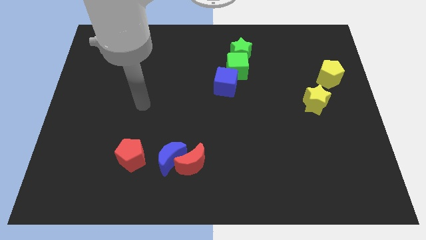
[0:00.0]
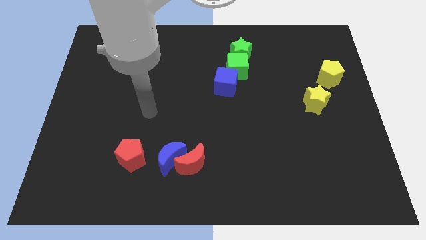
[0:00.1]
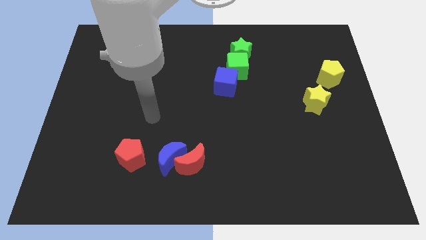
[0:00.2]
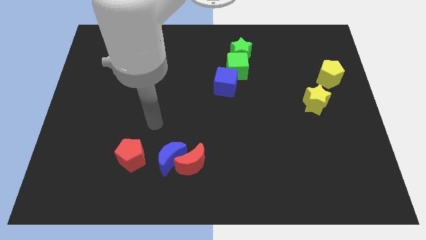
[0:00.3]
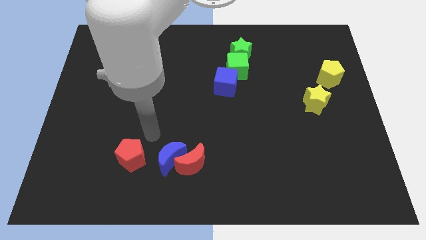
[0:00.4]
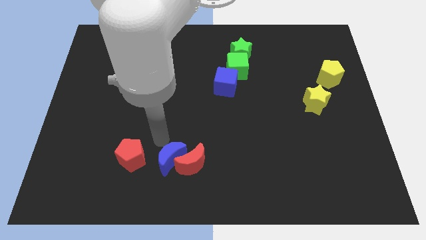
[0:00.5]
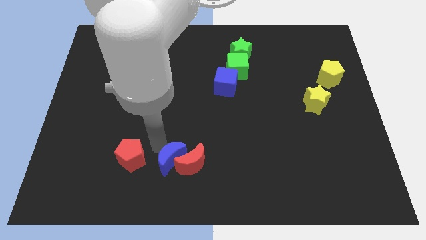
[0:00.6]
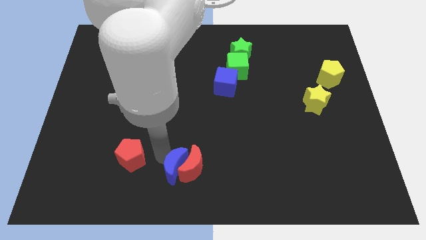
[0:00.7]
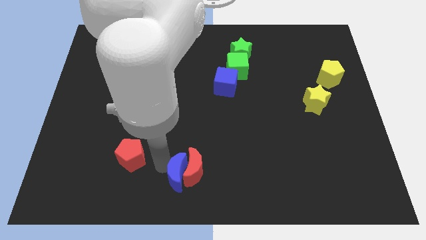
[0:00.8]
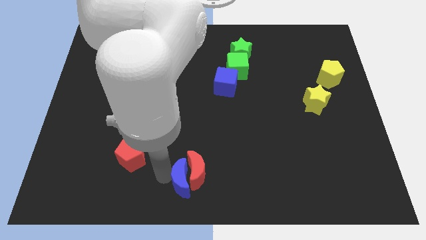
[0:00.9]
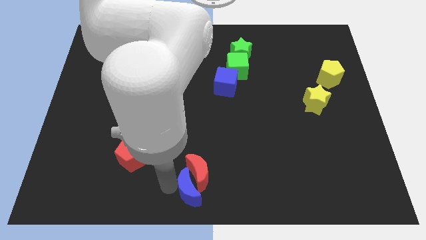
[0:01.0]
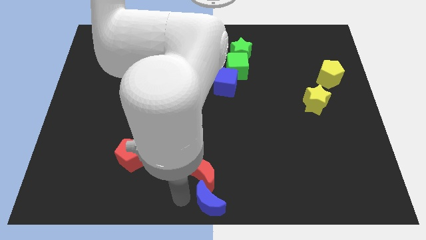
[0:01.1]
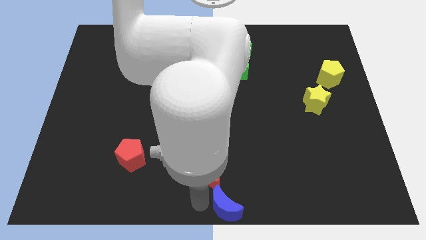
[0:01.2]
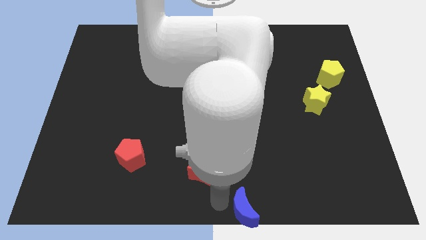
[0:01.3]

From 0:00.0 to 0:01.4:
pull the red moon apart from the blue moon

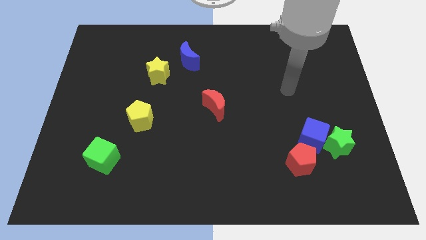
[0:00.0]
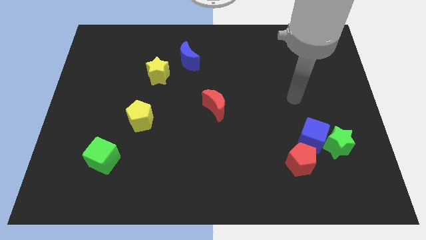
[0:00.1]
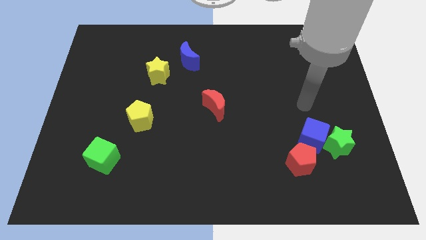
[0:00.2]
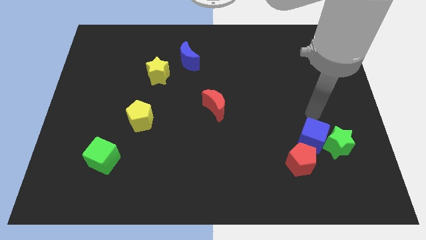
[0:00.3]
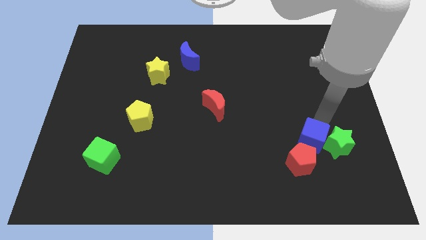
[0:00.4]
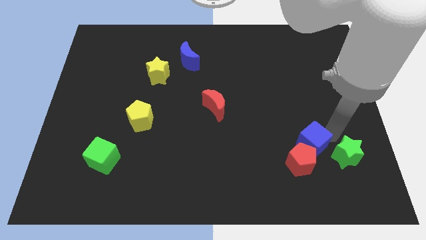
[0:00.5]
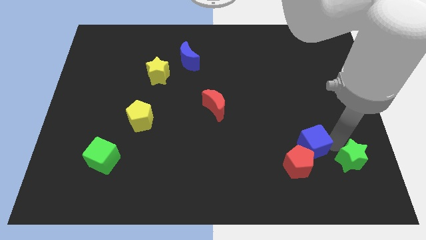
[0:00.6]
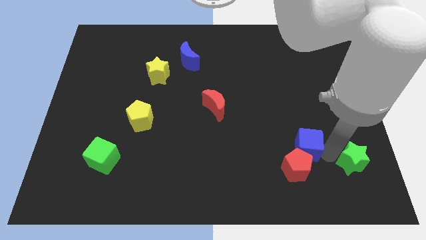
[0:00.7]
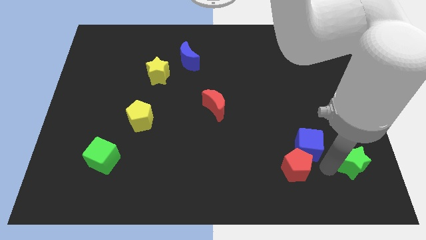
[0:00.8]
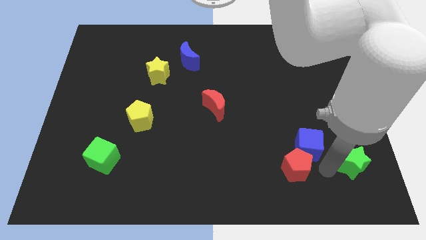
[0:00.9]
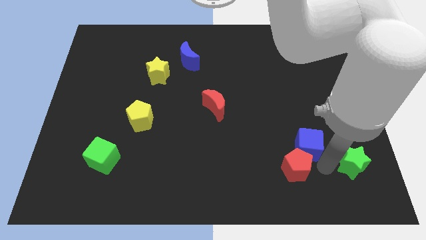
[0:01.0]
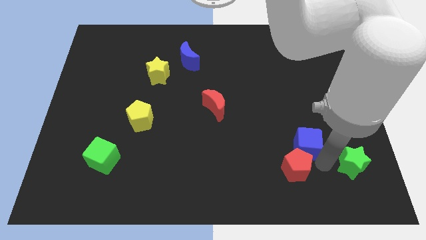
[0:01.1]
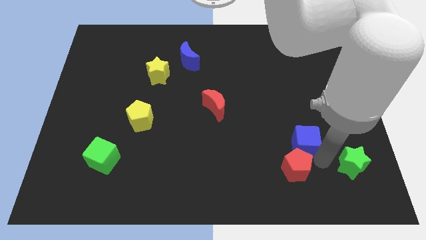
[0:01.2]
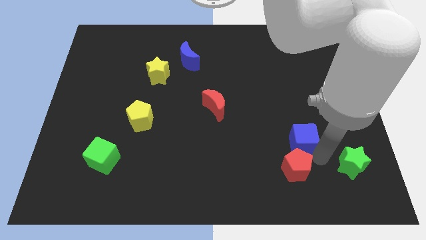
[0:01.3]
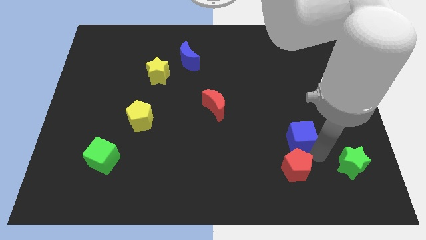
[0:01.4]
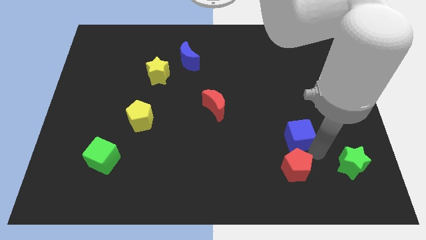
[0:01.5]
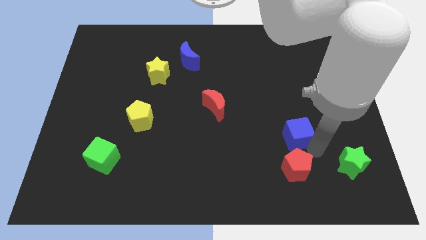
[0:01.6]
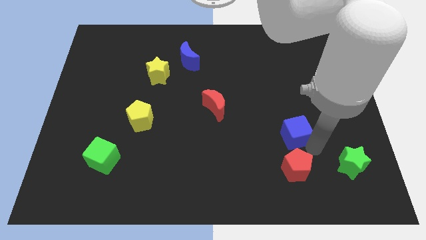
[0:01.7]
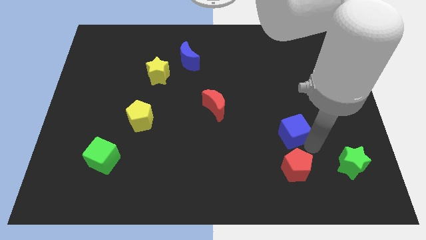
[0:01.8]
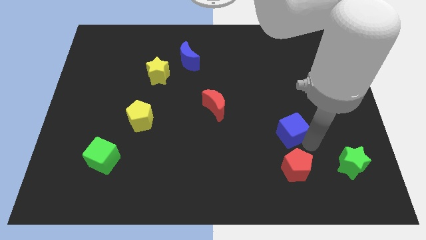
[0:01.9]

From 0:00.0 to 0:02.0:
move the blue cube away from the green star and red pentagon

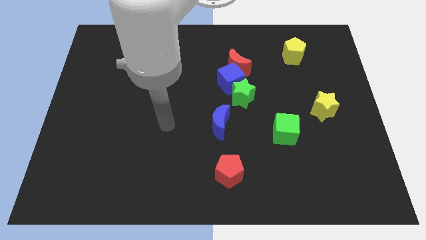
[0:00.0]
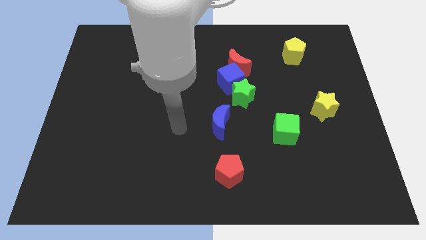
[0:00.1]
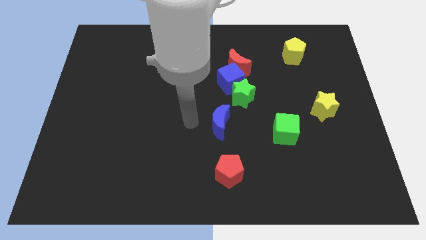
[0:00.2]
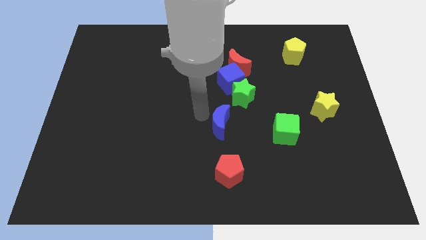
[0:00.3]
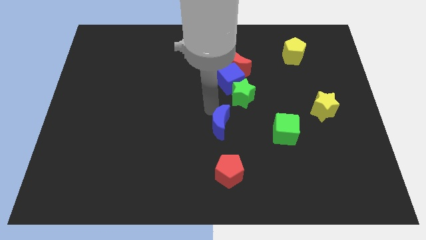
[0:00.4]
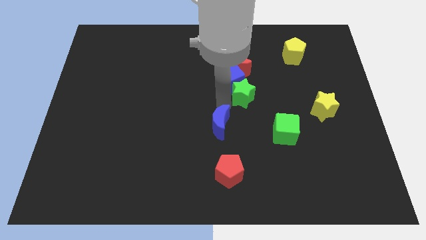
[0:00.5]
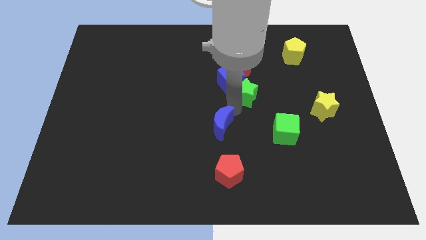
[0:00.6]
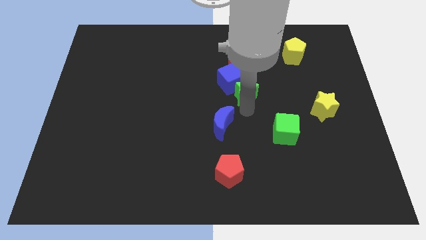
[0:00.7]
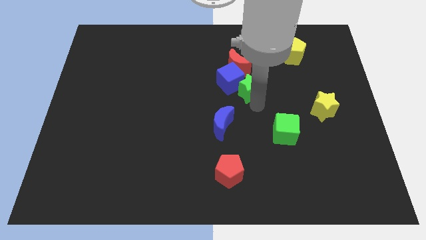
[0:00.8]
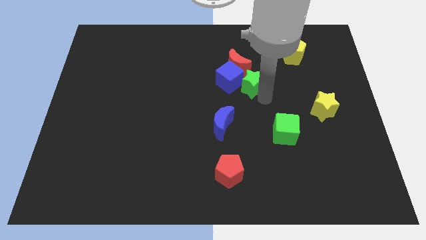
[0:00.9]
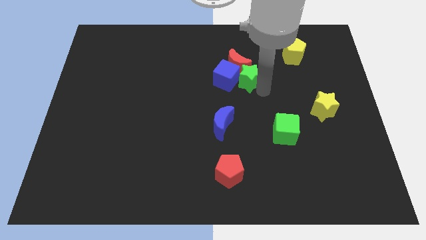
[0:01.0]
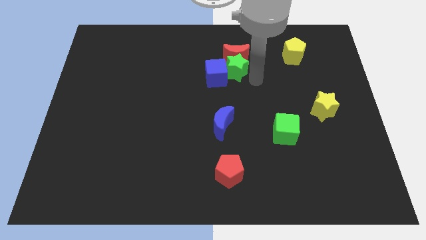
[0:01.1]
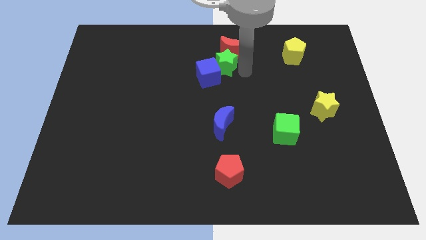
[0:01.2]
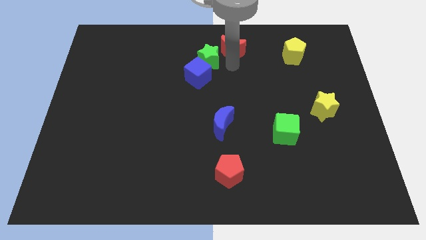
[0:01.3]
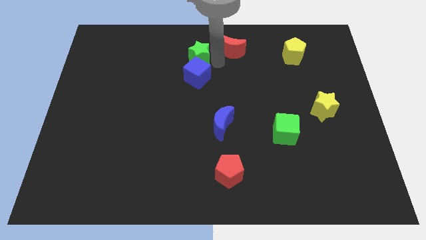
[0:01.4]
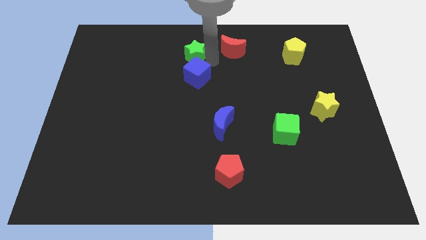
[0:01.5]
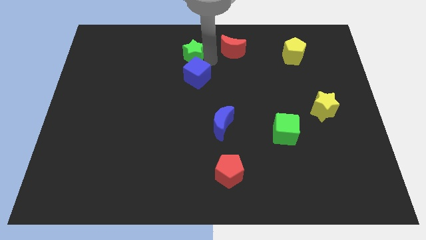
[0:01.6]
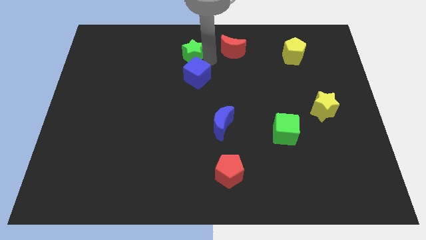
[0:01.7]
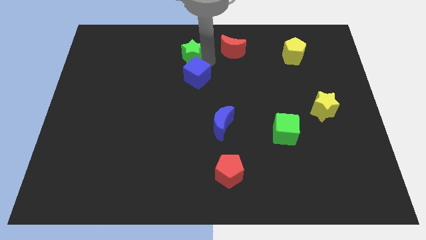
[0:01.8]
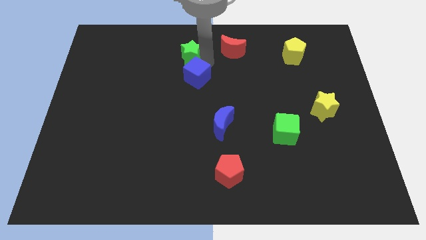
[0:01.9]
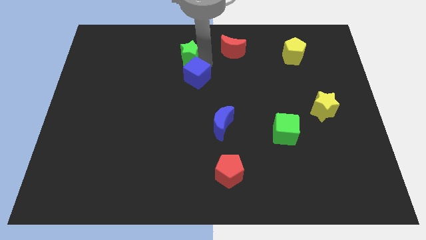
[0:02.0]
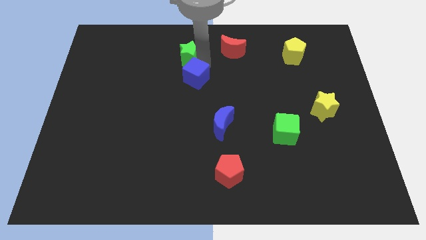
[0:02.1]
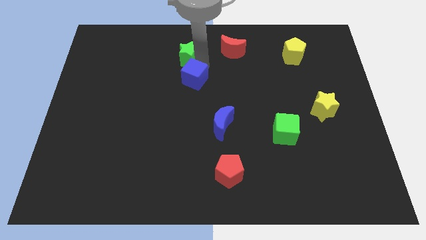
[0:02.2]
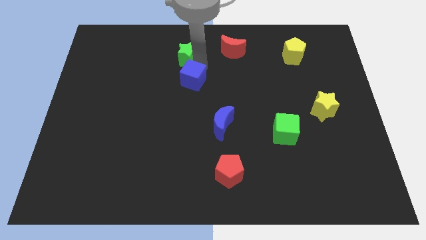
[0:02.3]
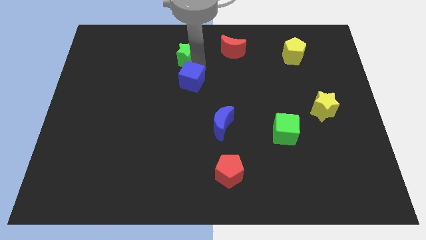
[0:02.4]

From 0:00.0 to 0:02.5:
separate the blue cube from the green star and red moon

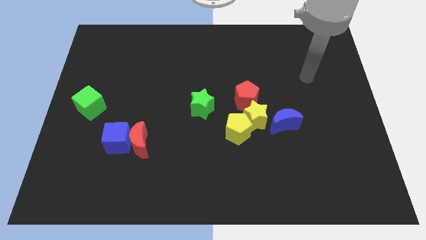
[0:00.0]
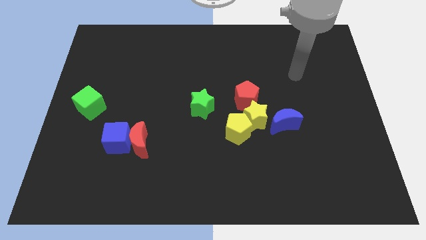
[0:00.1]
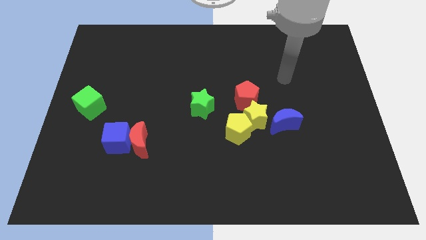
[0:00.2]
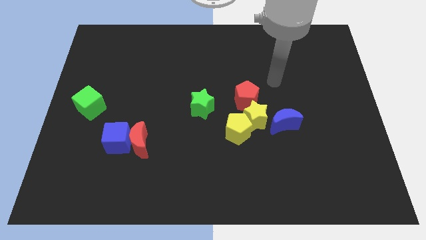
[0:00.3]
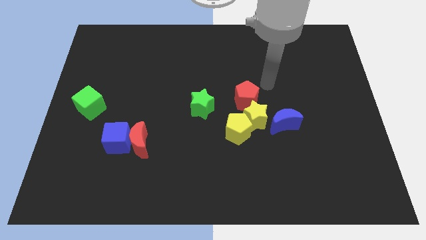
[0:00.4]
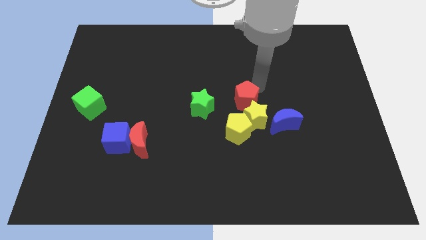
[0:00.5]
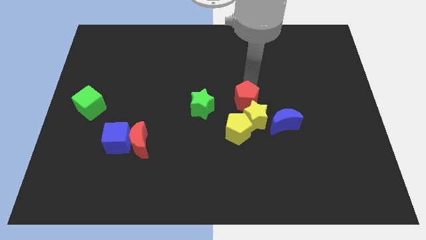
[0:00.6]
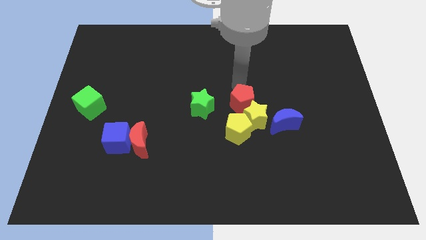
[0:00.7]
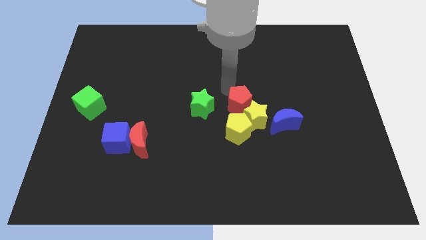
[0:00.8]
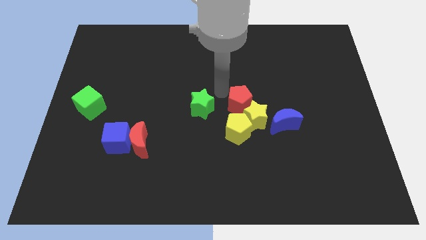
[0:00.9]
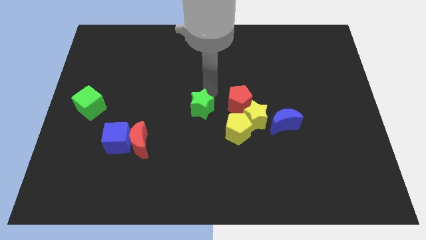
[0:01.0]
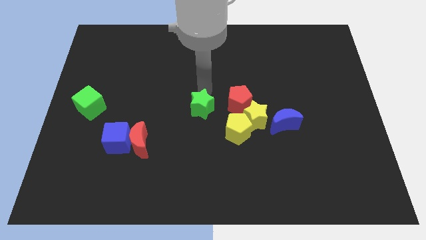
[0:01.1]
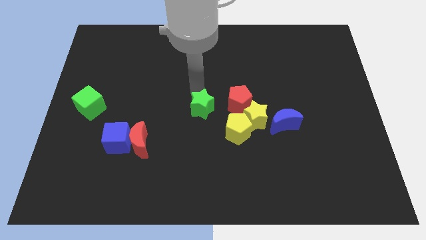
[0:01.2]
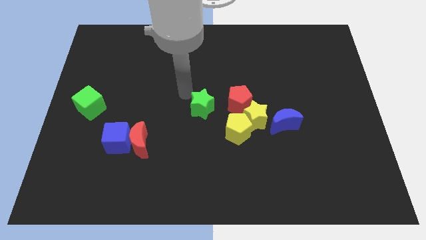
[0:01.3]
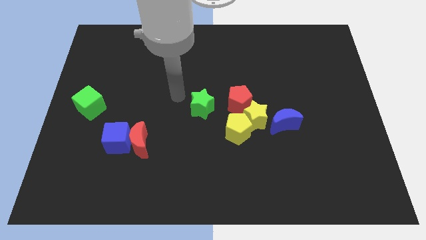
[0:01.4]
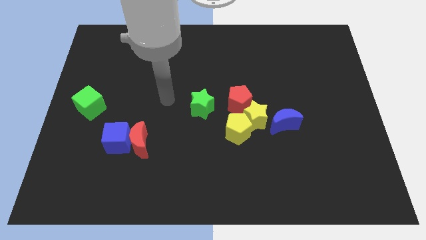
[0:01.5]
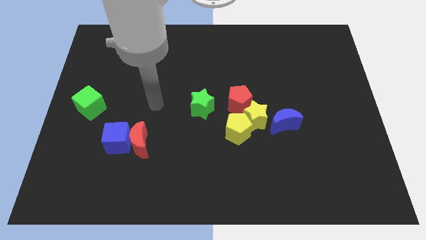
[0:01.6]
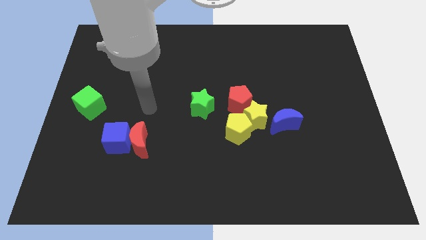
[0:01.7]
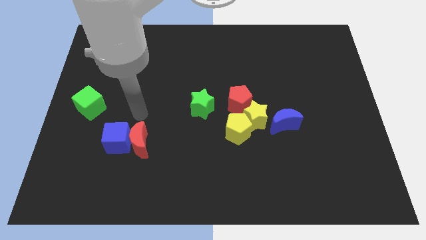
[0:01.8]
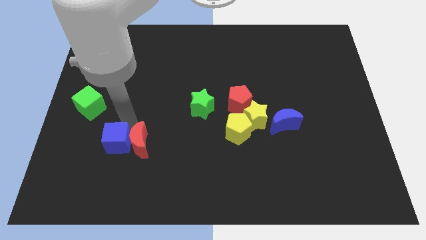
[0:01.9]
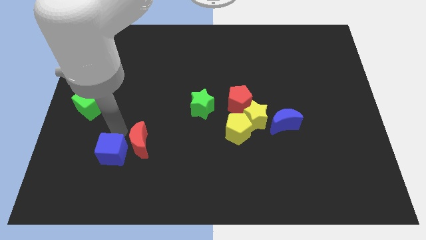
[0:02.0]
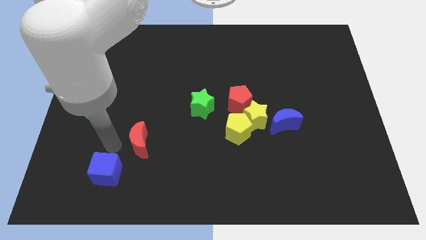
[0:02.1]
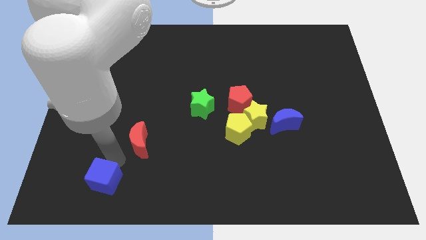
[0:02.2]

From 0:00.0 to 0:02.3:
pull the red moon apart from the blue cube

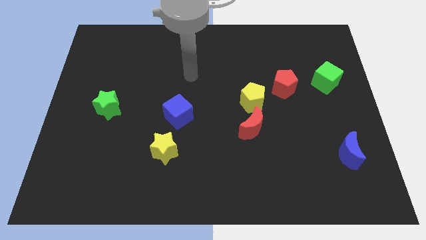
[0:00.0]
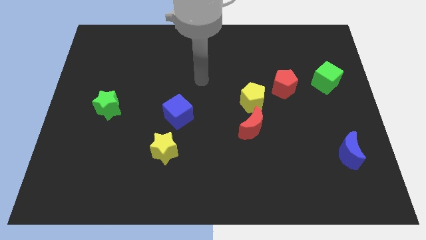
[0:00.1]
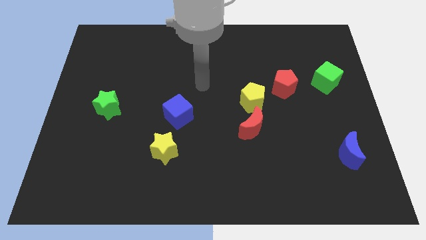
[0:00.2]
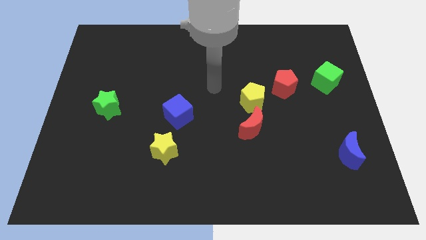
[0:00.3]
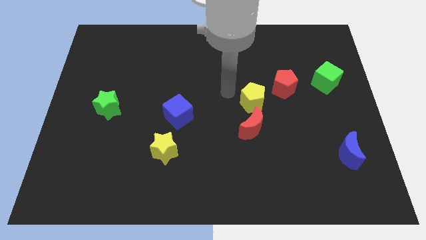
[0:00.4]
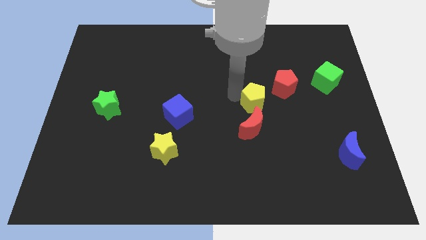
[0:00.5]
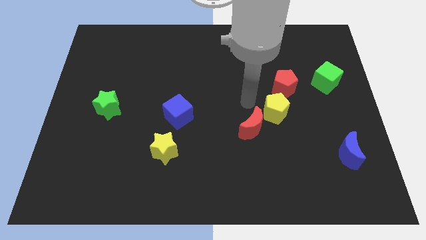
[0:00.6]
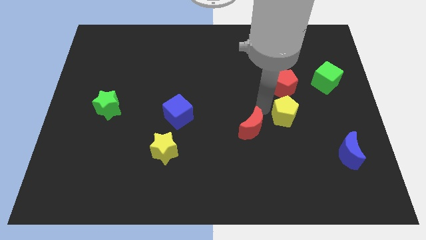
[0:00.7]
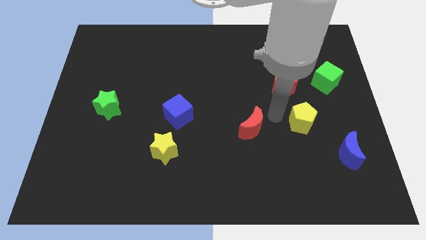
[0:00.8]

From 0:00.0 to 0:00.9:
pull the red moon apart from the yellow pentagon

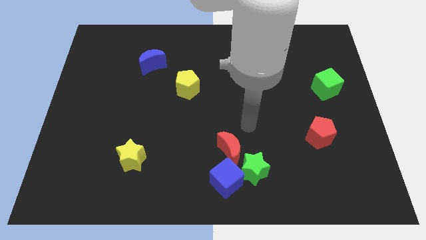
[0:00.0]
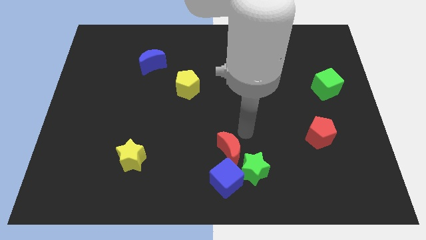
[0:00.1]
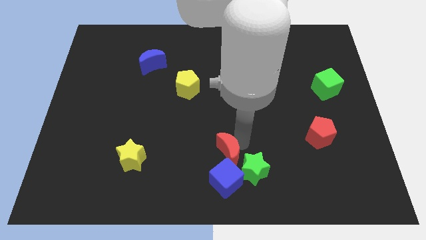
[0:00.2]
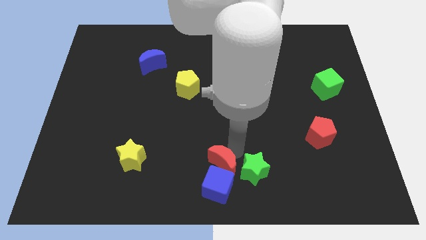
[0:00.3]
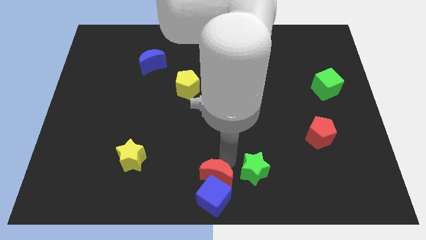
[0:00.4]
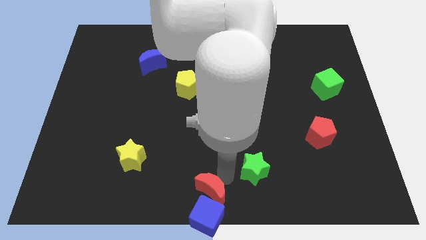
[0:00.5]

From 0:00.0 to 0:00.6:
move the green star away from the blue cube and red moon
